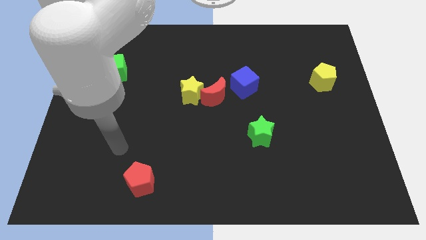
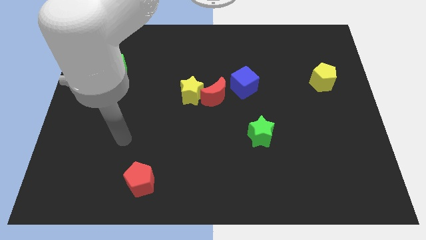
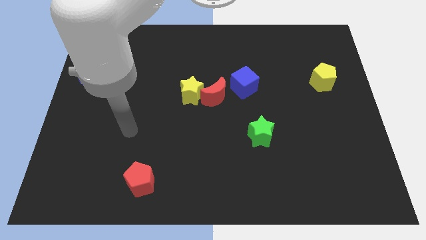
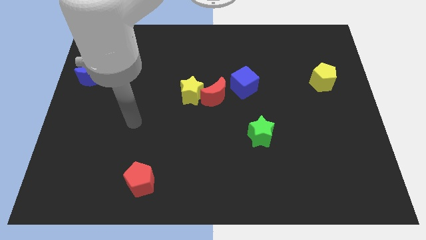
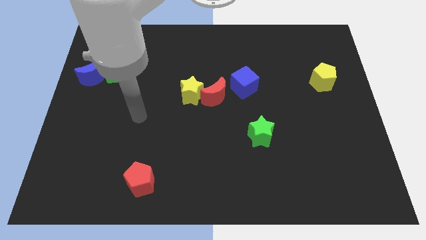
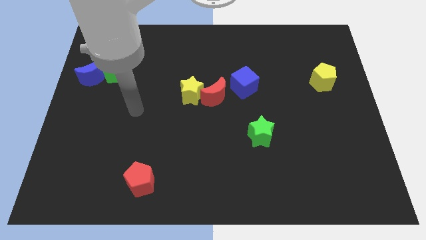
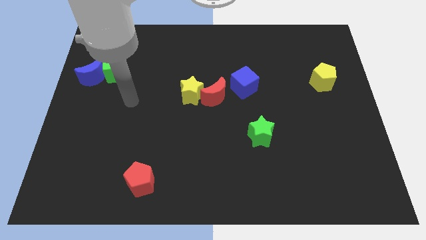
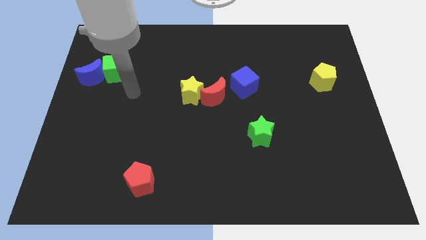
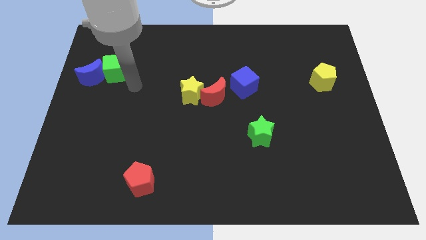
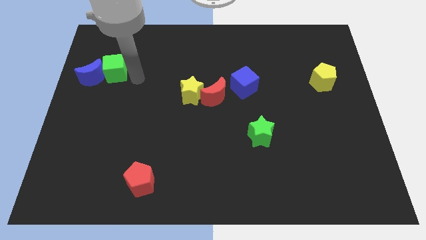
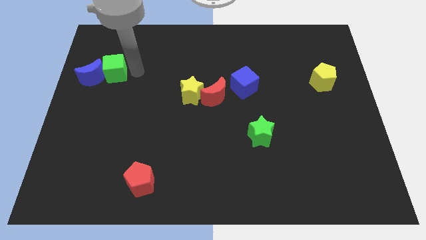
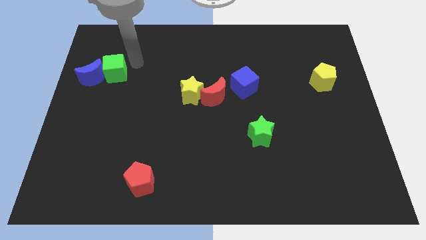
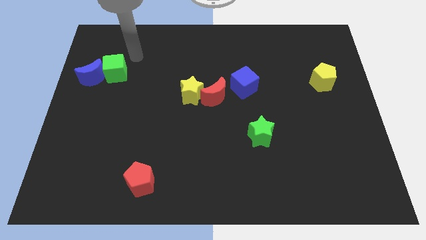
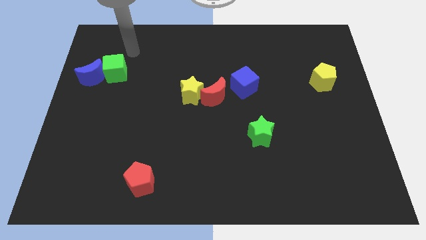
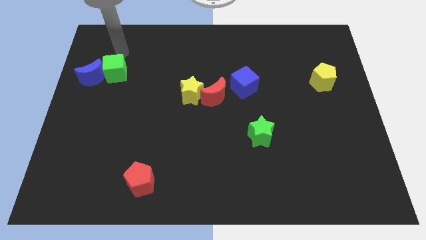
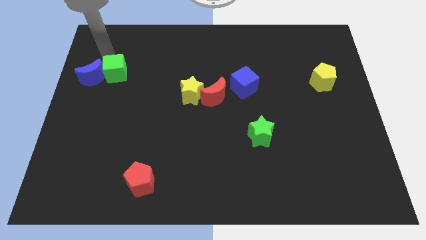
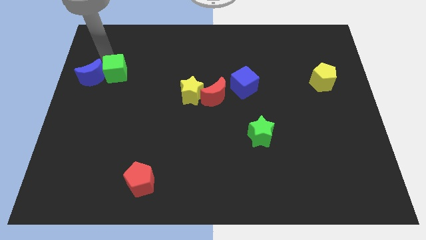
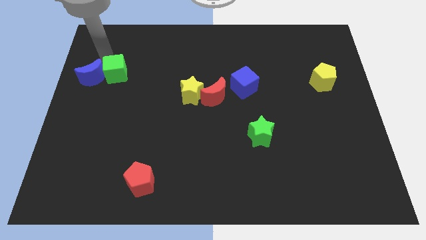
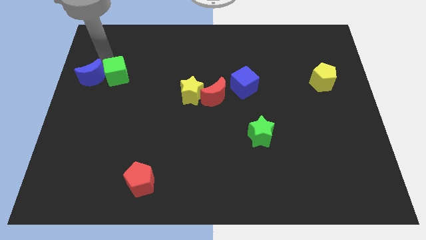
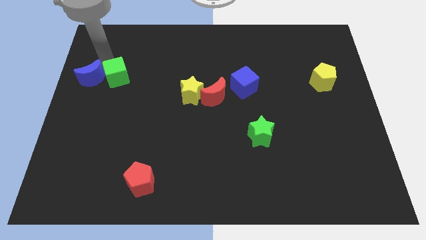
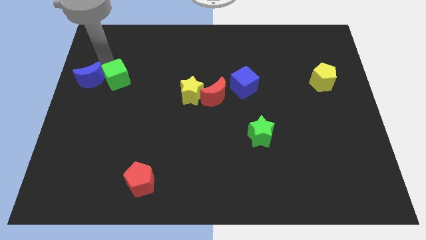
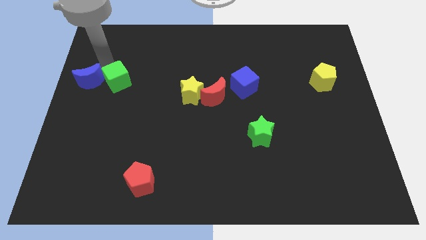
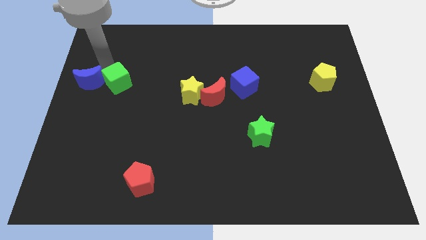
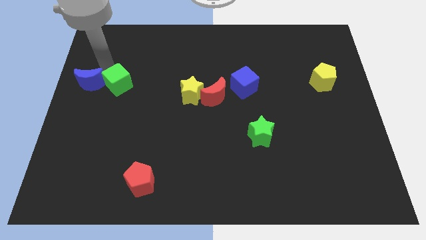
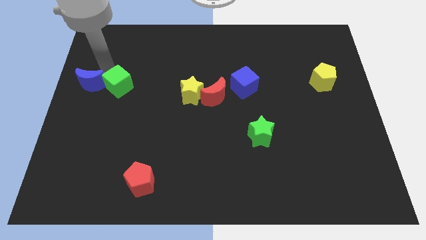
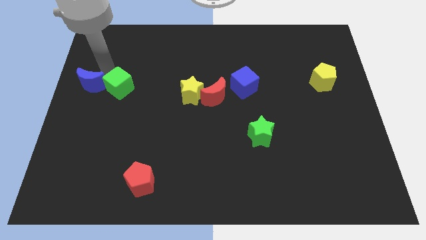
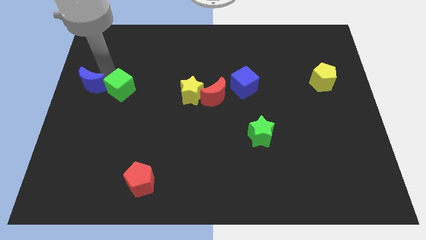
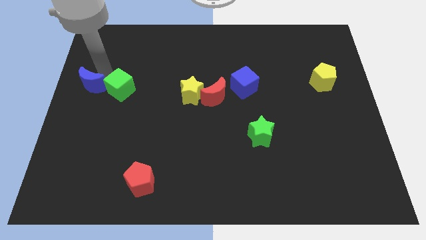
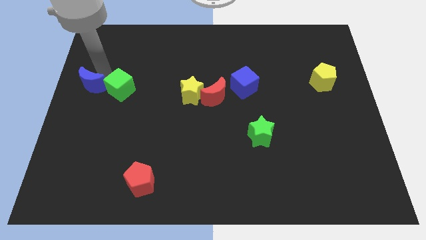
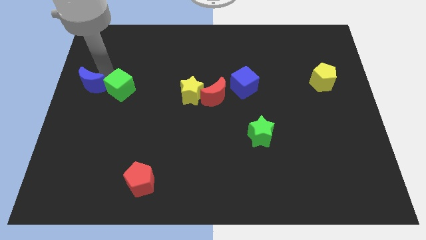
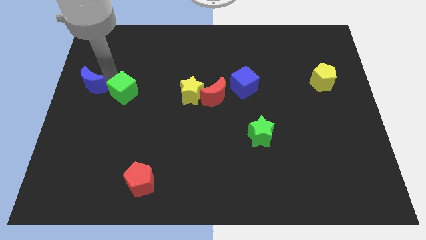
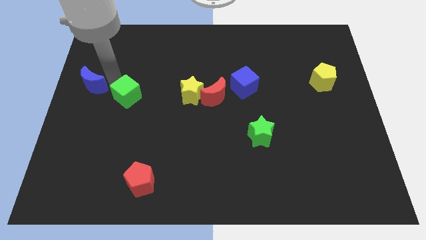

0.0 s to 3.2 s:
slightly slide the green cube down and then right

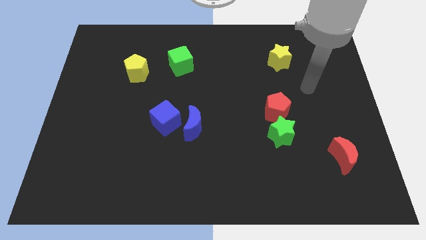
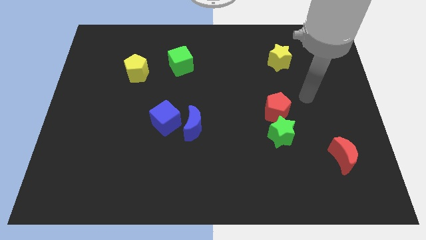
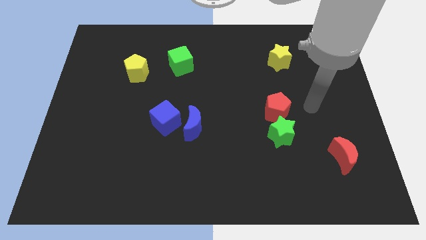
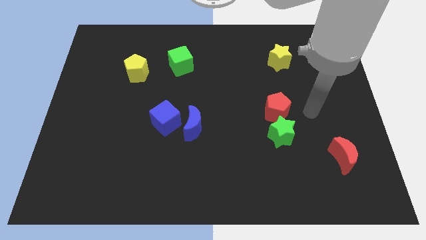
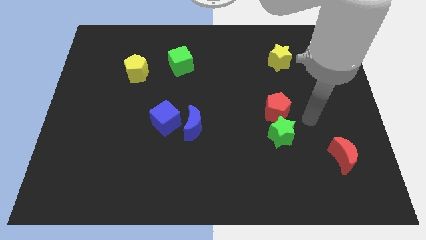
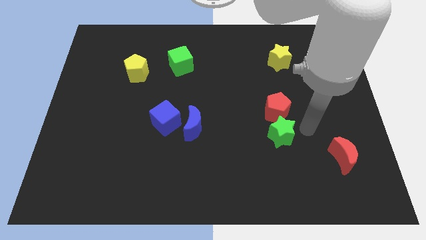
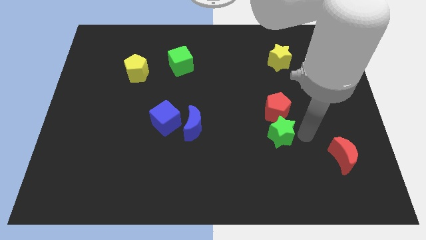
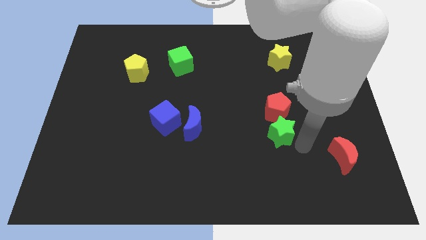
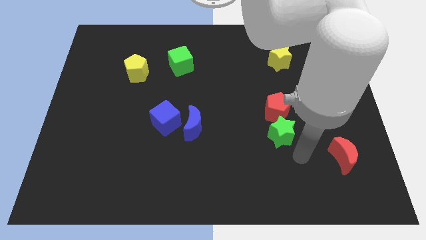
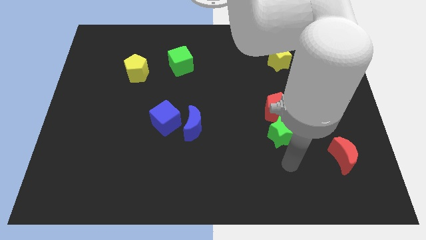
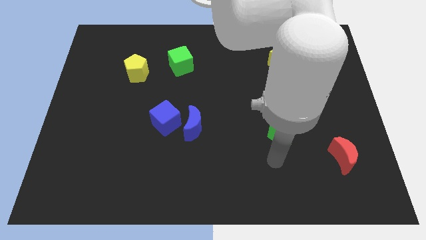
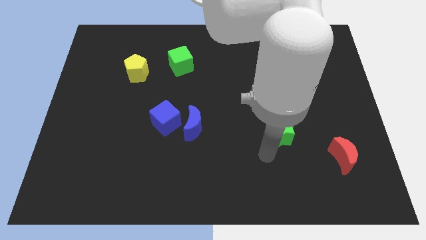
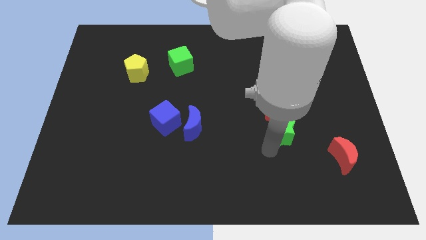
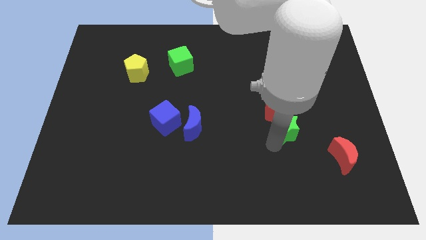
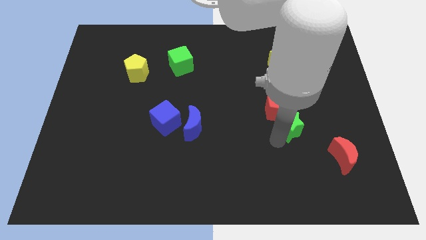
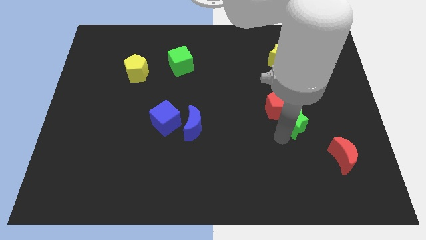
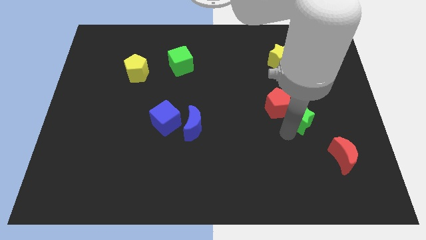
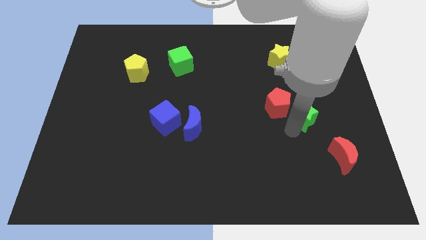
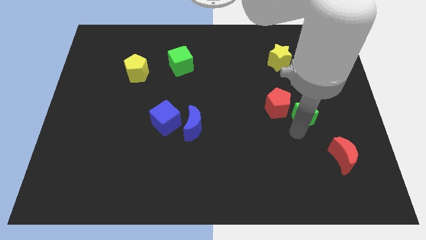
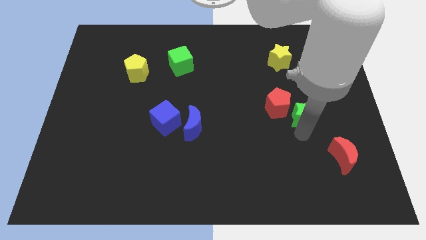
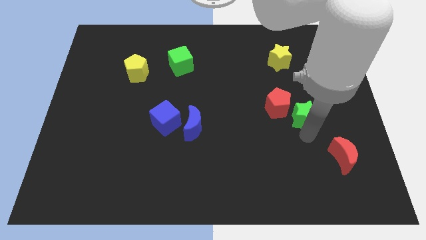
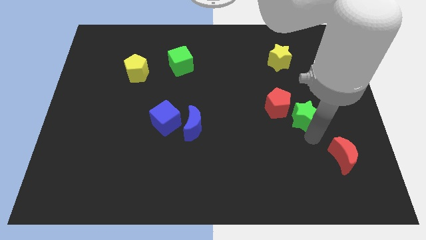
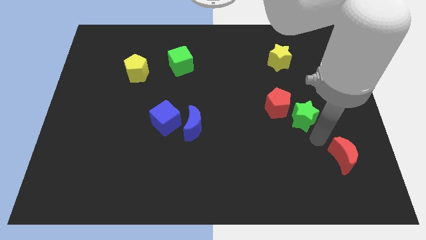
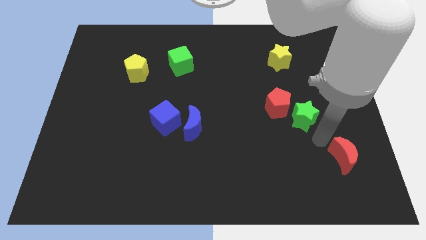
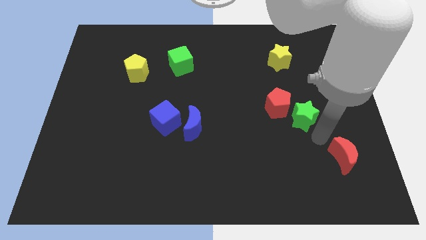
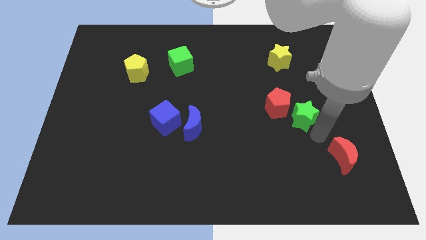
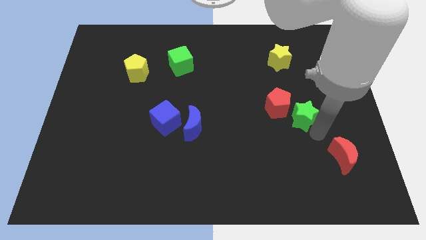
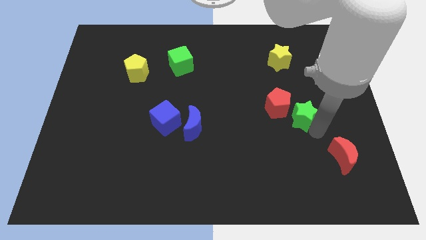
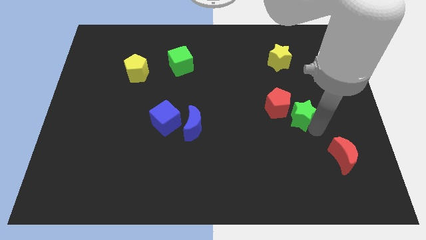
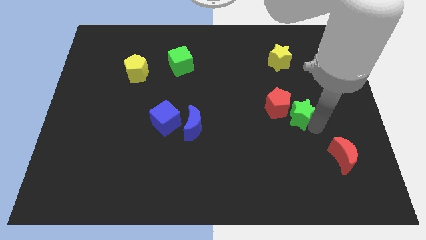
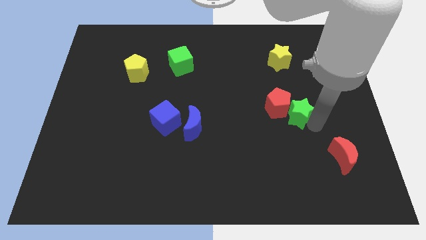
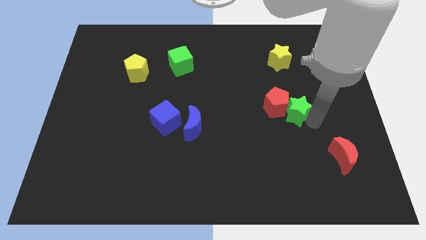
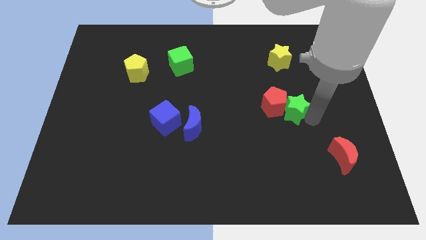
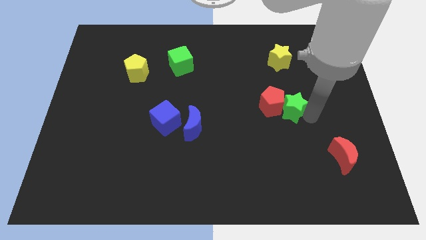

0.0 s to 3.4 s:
push the green star a little bit up

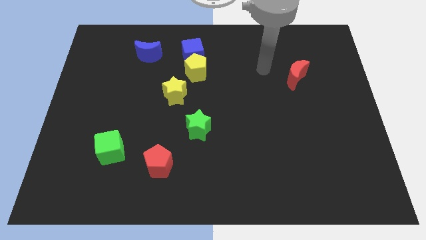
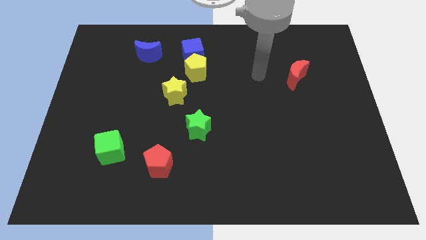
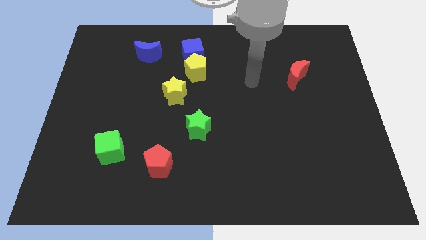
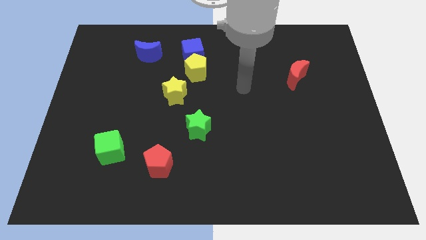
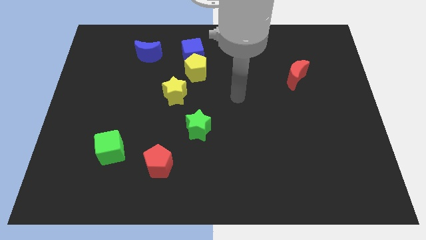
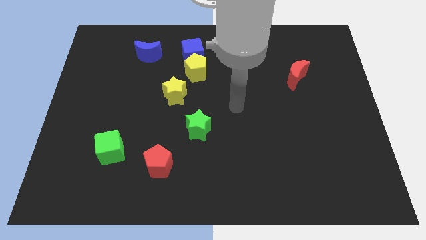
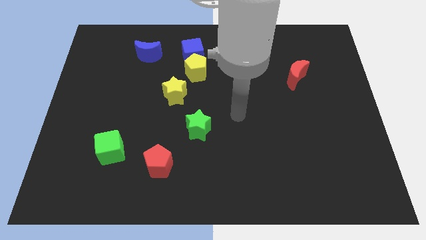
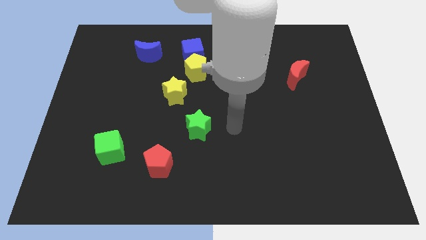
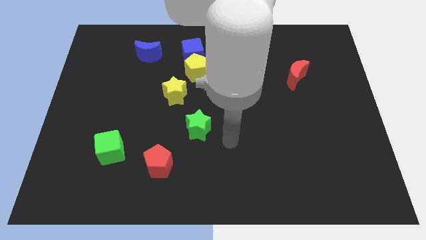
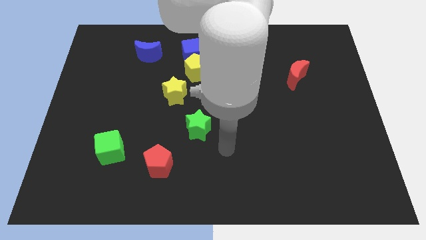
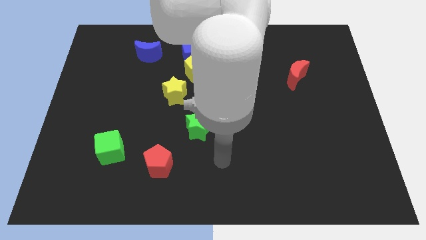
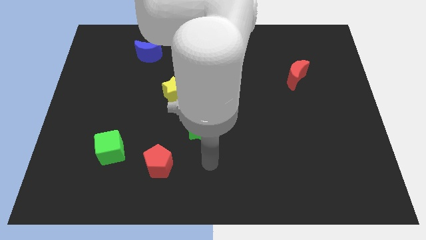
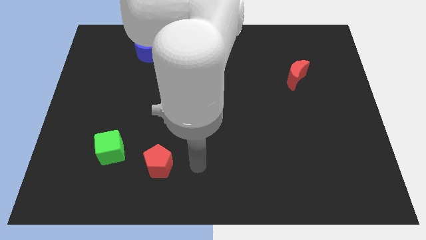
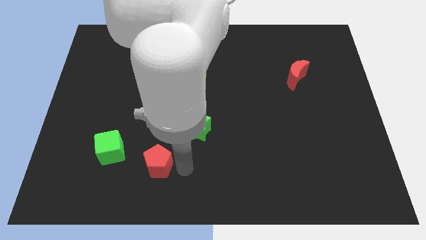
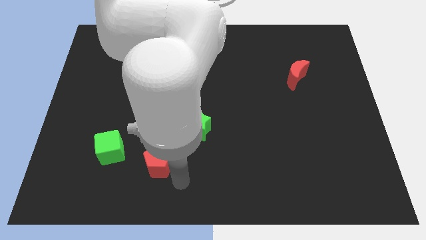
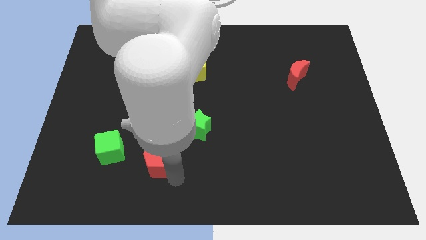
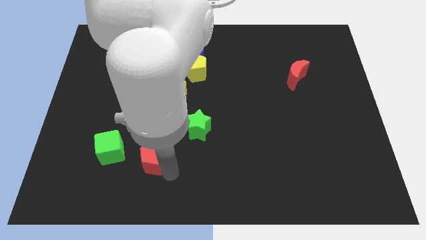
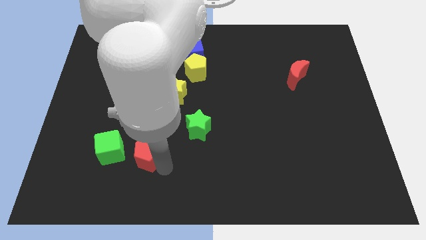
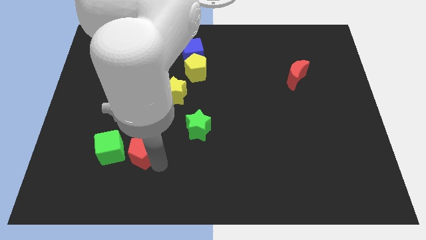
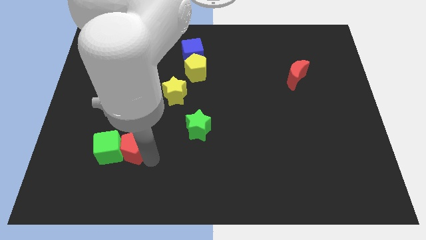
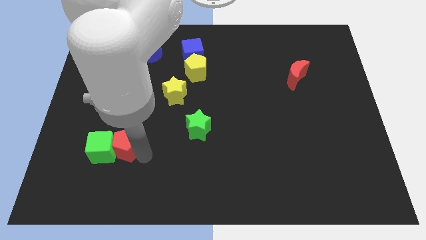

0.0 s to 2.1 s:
push the red pentagon a little upwards and to the left diagonally
